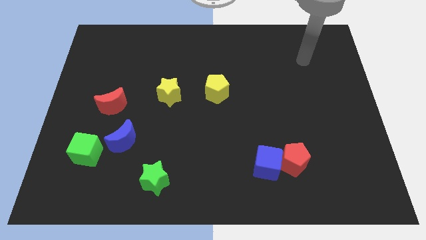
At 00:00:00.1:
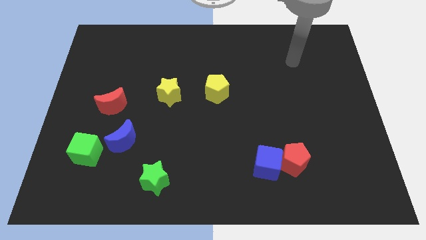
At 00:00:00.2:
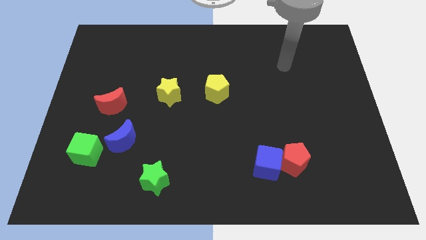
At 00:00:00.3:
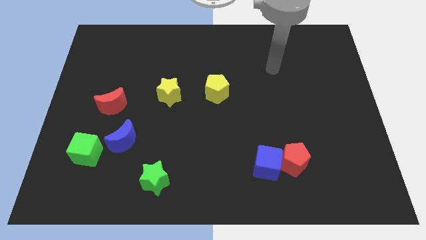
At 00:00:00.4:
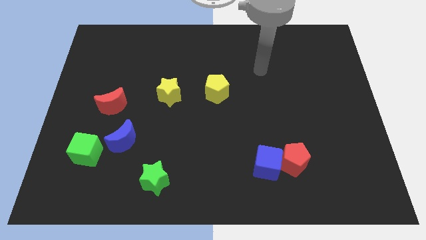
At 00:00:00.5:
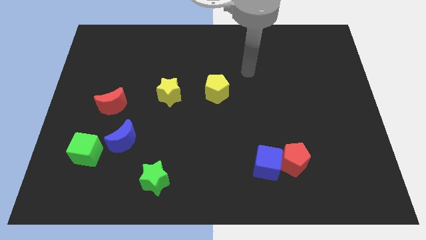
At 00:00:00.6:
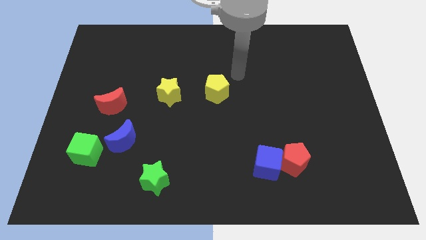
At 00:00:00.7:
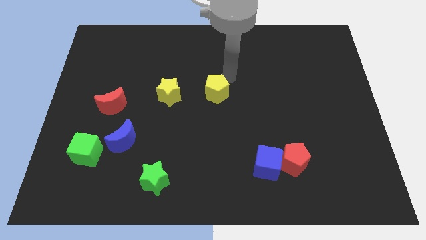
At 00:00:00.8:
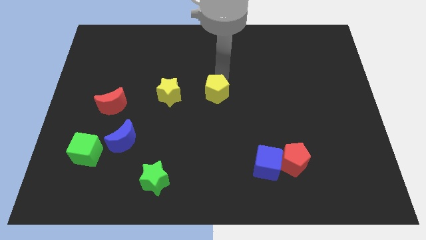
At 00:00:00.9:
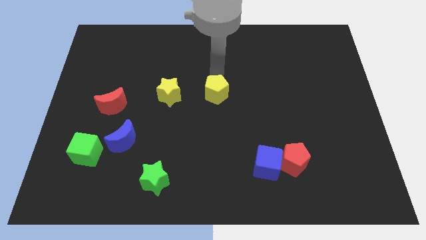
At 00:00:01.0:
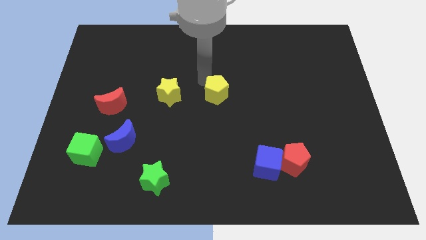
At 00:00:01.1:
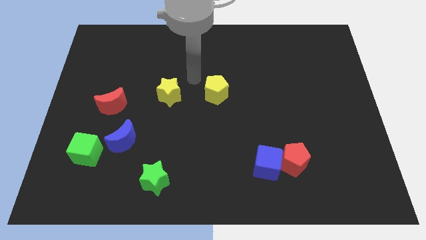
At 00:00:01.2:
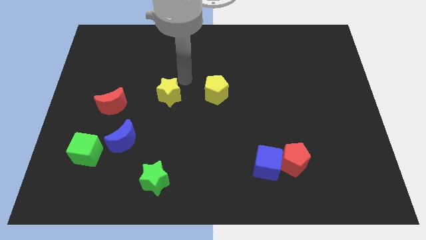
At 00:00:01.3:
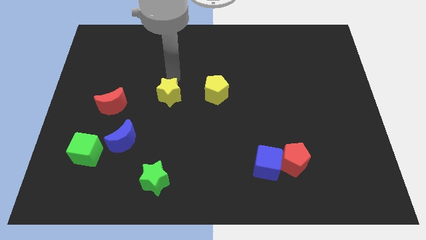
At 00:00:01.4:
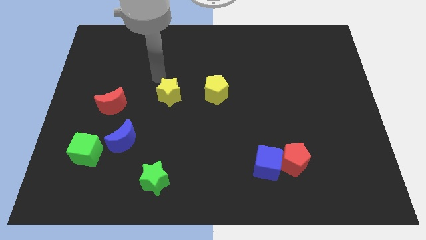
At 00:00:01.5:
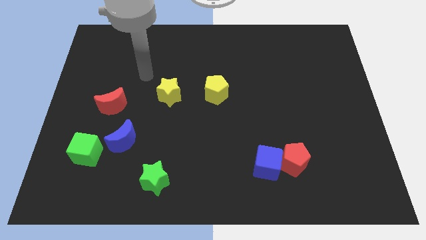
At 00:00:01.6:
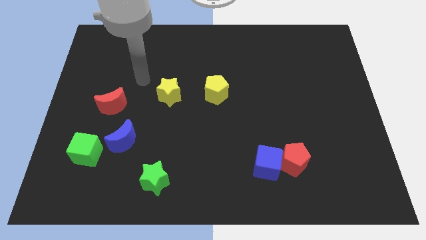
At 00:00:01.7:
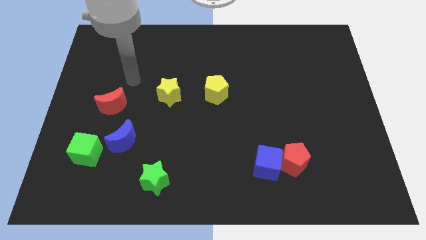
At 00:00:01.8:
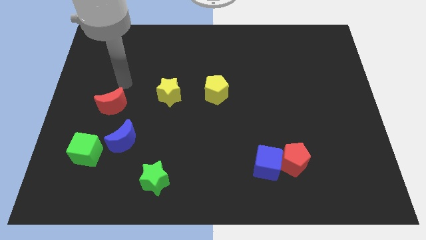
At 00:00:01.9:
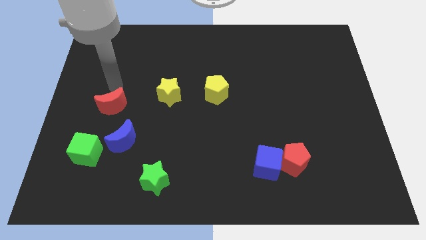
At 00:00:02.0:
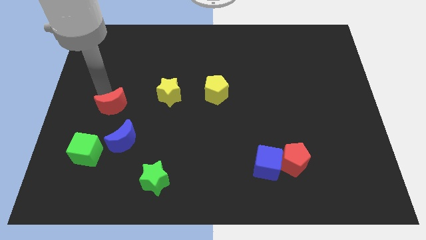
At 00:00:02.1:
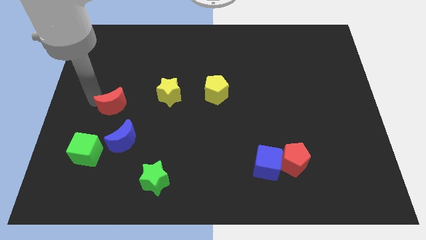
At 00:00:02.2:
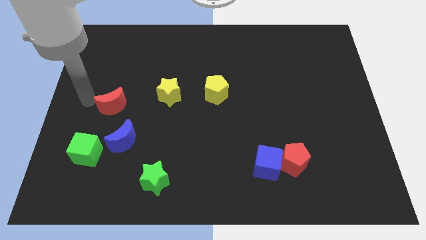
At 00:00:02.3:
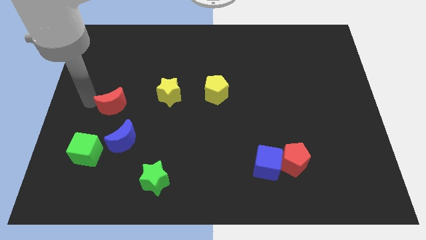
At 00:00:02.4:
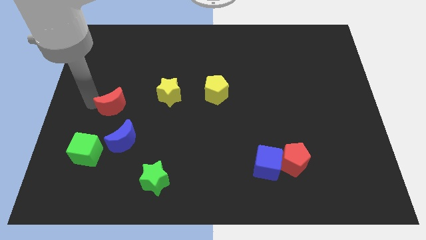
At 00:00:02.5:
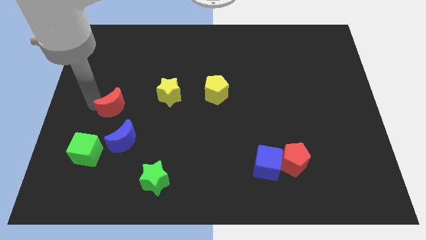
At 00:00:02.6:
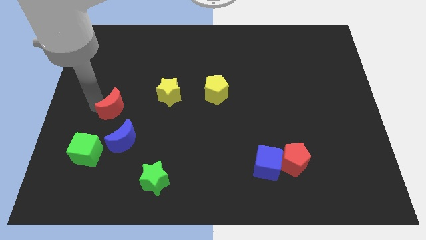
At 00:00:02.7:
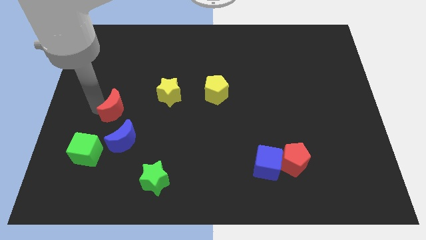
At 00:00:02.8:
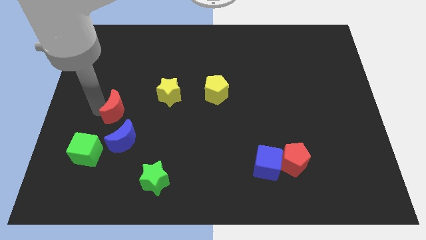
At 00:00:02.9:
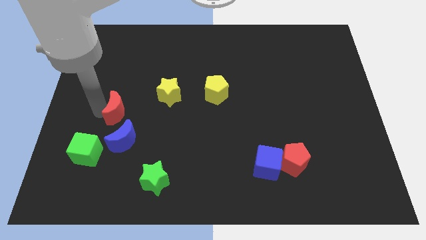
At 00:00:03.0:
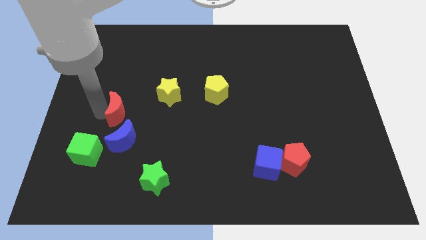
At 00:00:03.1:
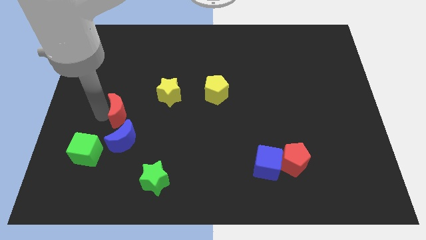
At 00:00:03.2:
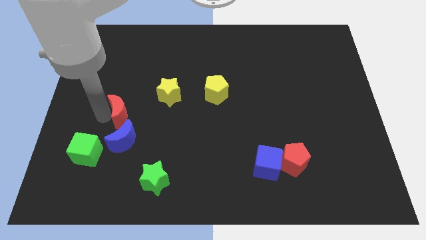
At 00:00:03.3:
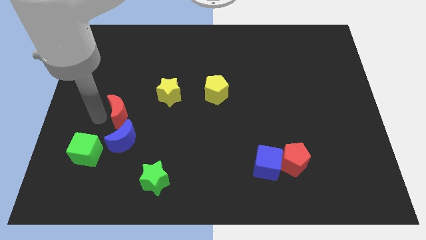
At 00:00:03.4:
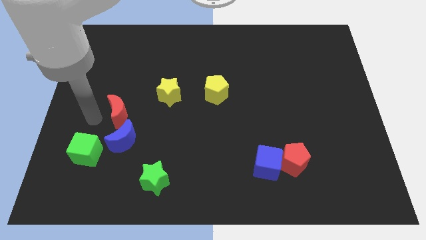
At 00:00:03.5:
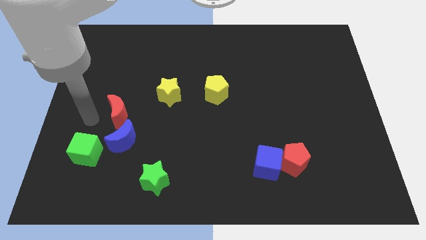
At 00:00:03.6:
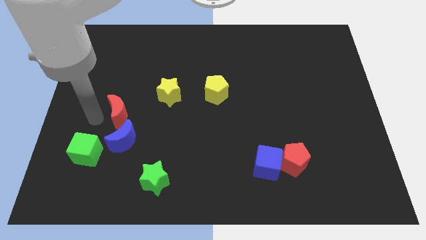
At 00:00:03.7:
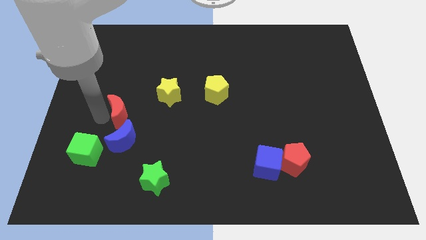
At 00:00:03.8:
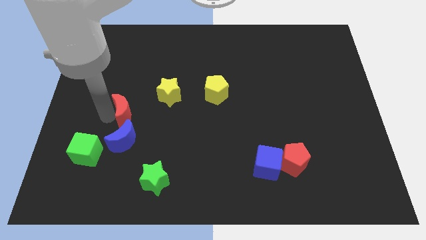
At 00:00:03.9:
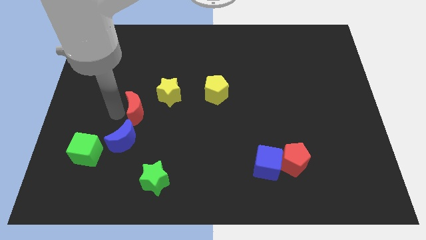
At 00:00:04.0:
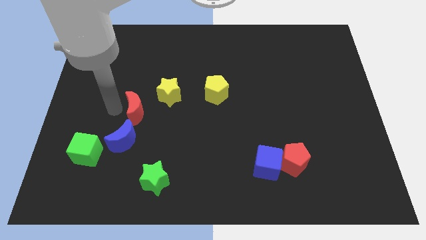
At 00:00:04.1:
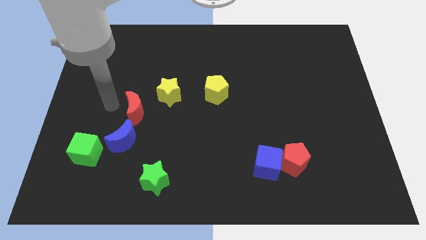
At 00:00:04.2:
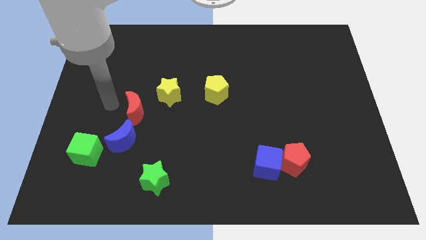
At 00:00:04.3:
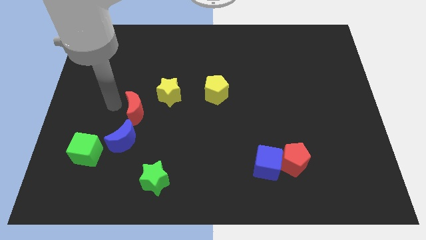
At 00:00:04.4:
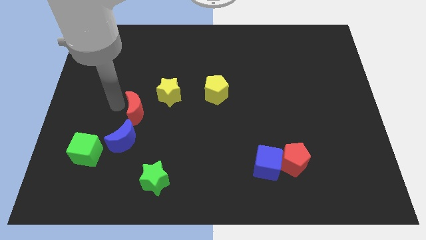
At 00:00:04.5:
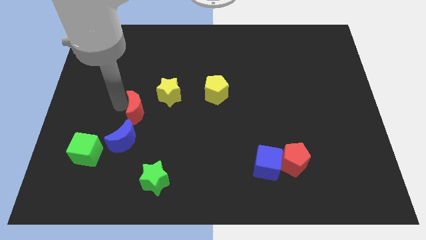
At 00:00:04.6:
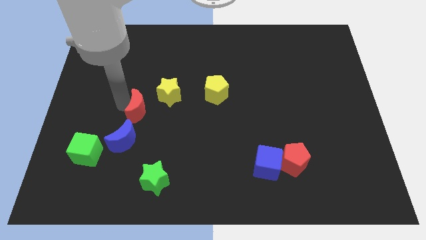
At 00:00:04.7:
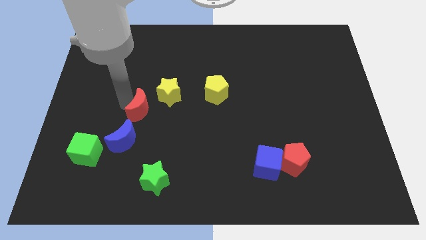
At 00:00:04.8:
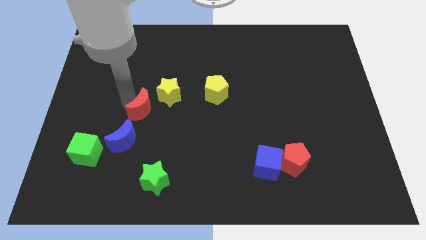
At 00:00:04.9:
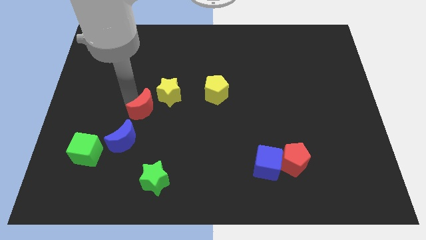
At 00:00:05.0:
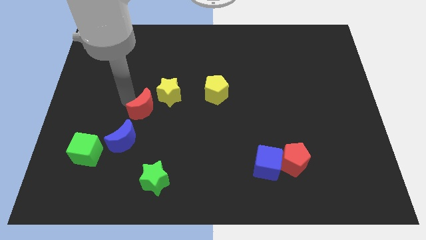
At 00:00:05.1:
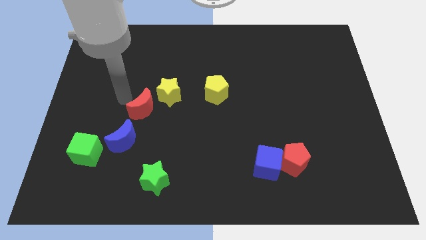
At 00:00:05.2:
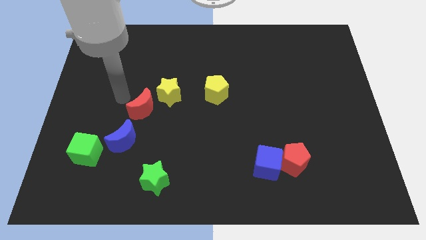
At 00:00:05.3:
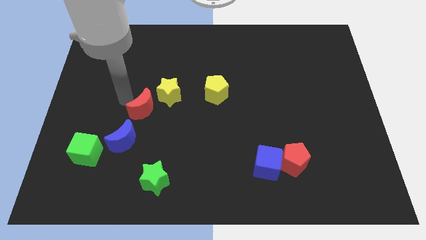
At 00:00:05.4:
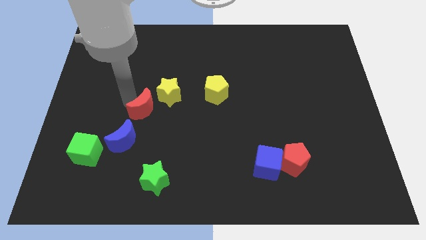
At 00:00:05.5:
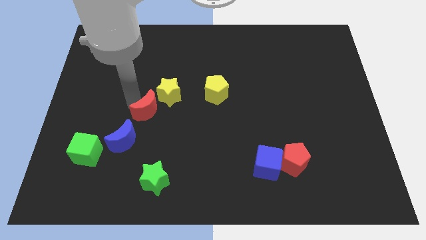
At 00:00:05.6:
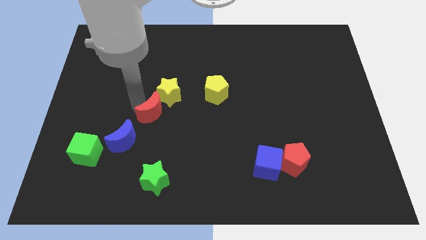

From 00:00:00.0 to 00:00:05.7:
push the red moon somewhat diagonally down and right

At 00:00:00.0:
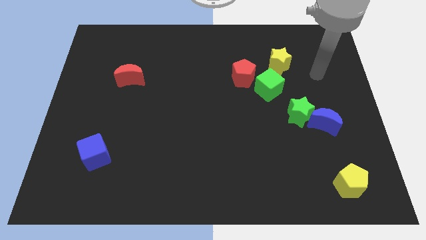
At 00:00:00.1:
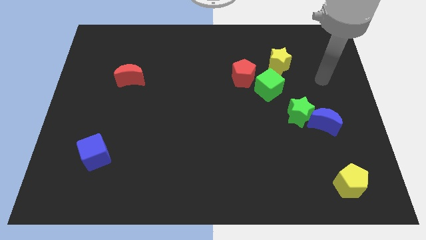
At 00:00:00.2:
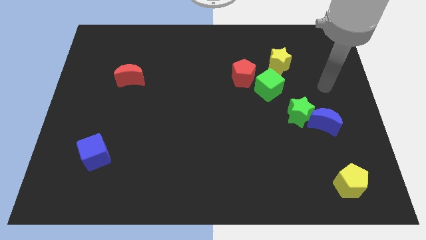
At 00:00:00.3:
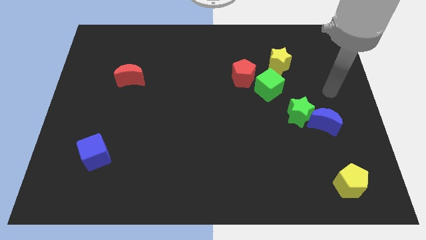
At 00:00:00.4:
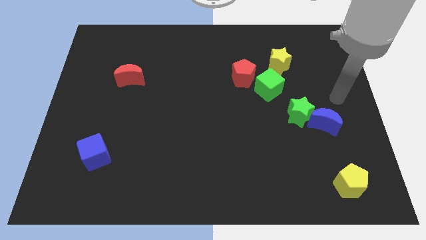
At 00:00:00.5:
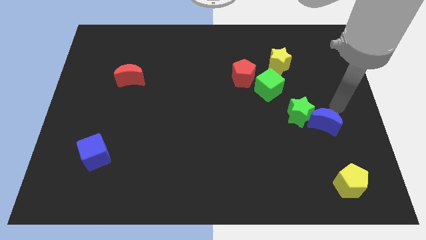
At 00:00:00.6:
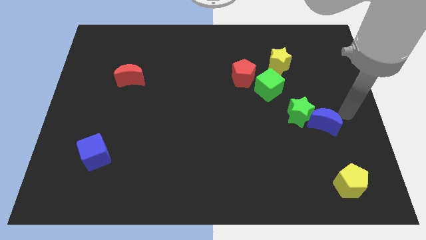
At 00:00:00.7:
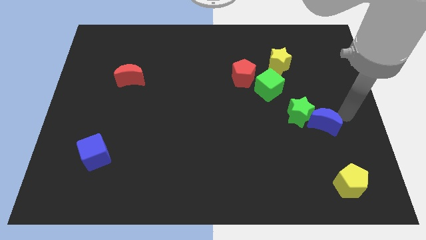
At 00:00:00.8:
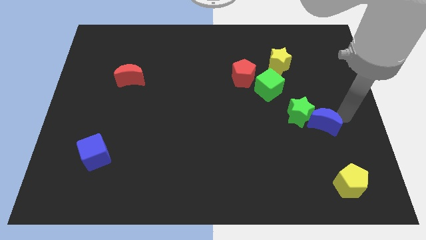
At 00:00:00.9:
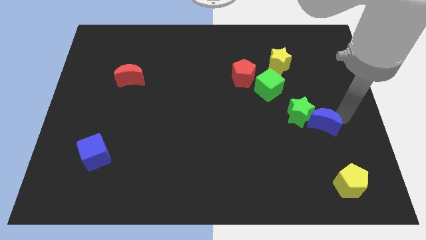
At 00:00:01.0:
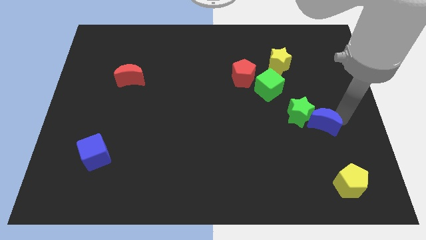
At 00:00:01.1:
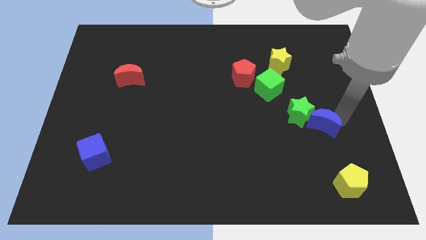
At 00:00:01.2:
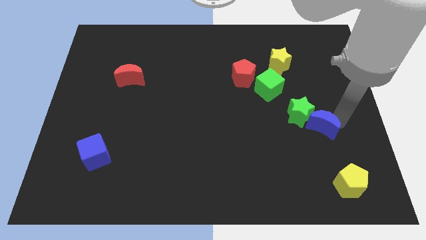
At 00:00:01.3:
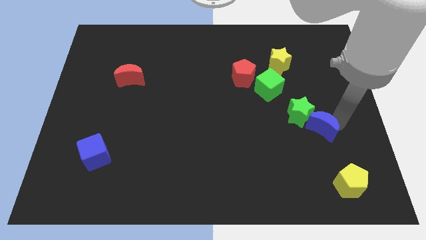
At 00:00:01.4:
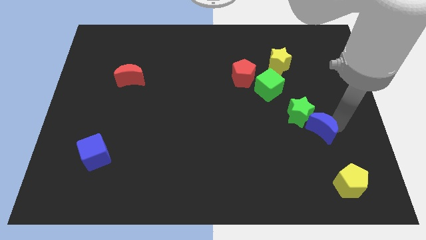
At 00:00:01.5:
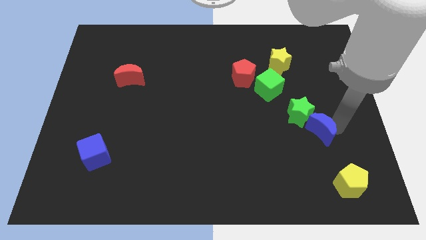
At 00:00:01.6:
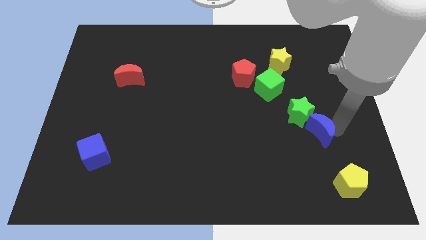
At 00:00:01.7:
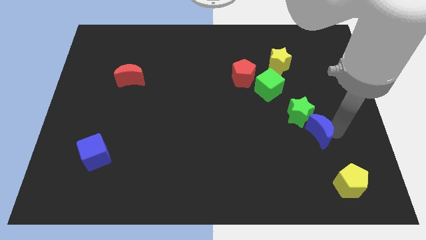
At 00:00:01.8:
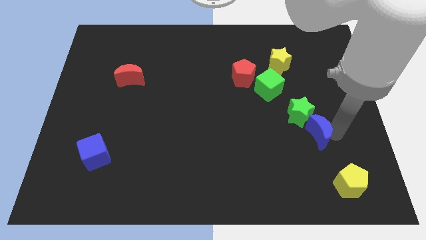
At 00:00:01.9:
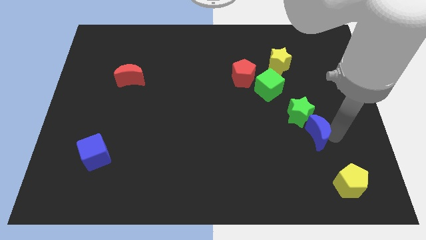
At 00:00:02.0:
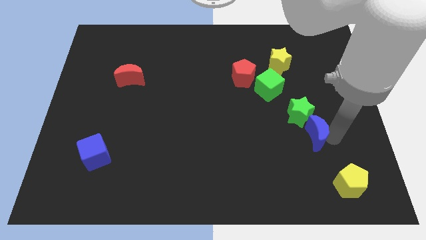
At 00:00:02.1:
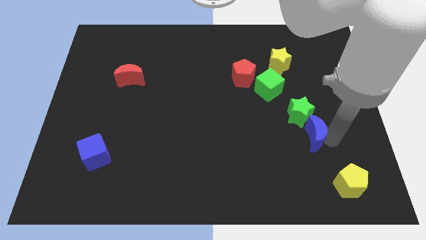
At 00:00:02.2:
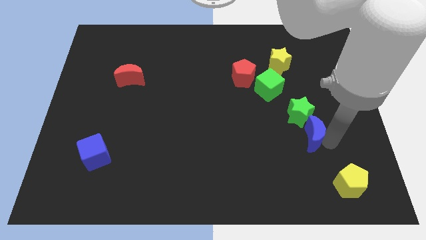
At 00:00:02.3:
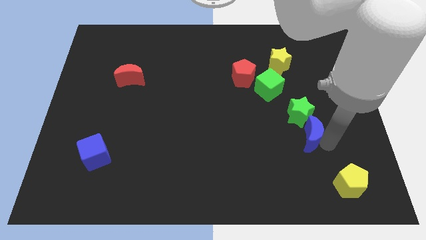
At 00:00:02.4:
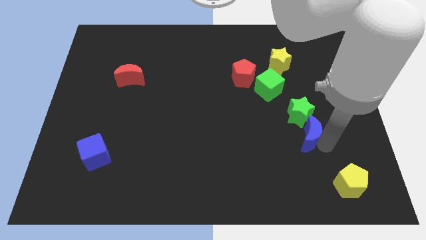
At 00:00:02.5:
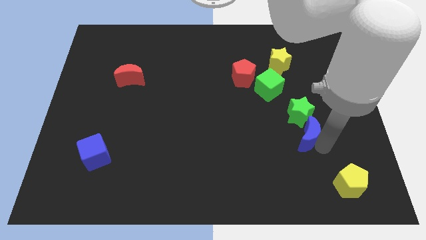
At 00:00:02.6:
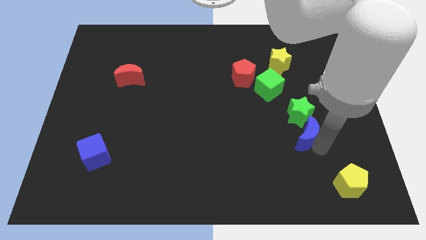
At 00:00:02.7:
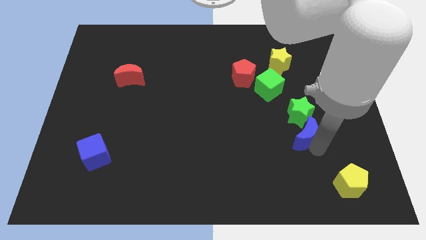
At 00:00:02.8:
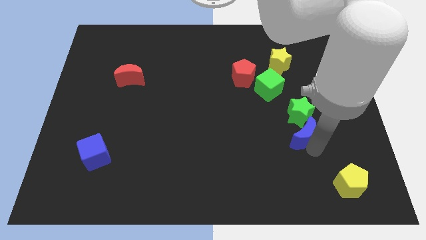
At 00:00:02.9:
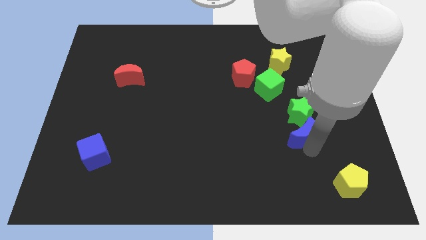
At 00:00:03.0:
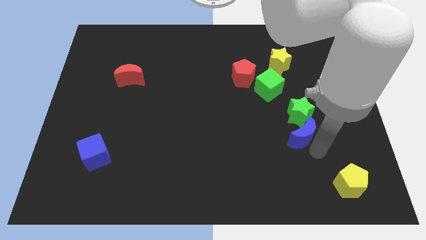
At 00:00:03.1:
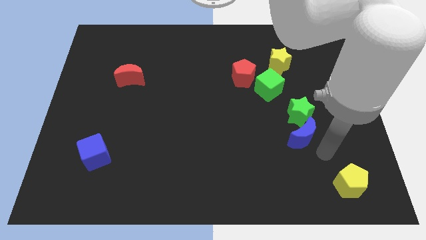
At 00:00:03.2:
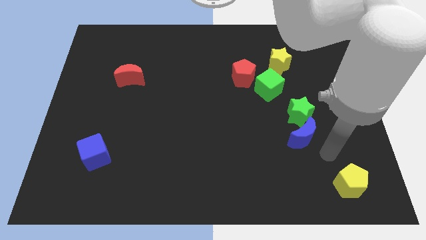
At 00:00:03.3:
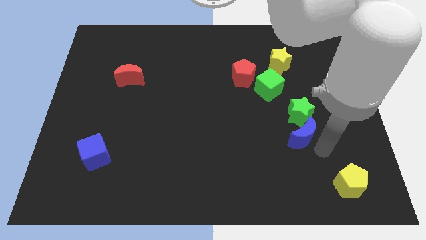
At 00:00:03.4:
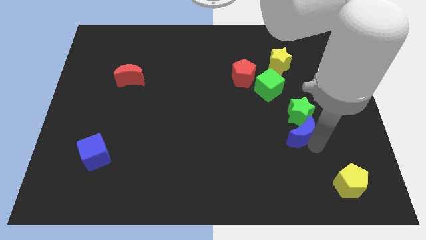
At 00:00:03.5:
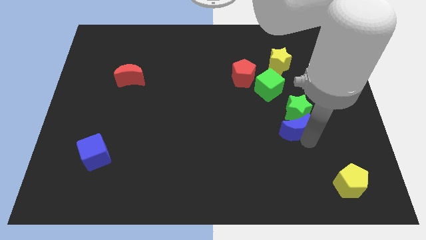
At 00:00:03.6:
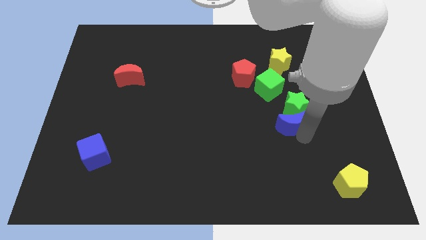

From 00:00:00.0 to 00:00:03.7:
slightly move the blue moon to the left
